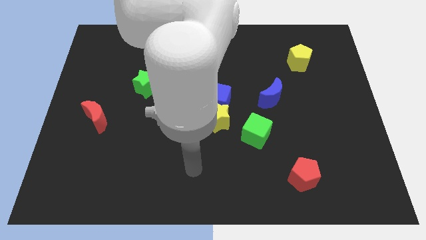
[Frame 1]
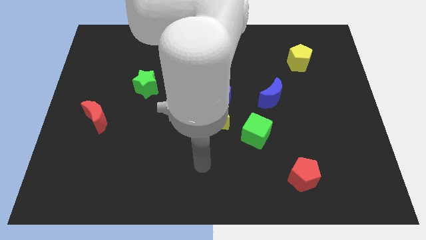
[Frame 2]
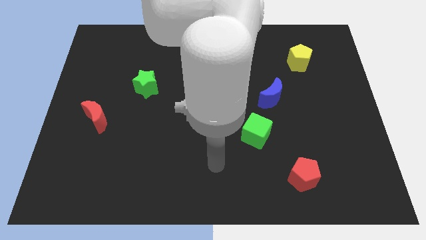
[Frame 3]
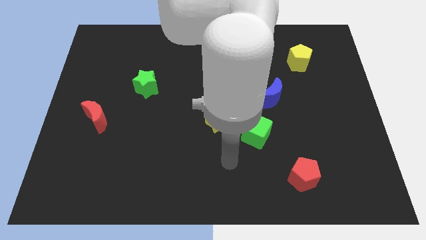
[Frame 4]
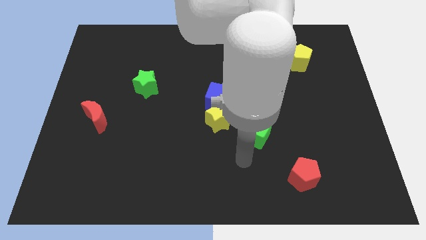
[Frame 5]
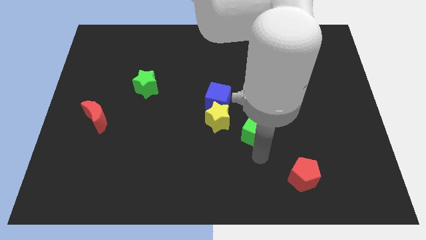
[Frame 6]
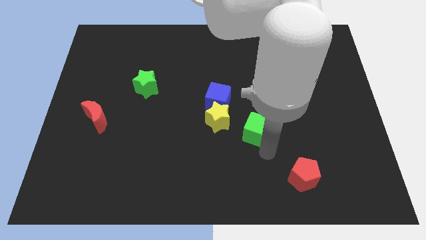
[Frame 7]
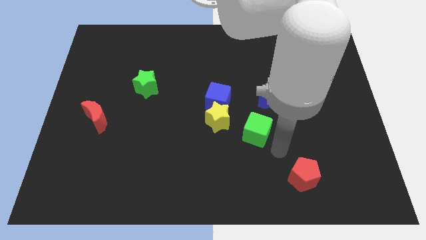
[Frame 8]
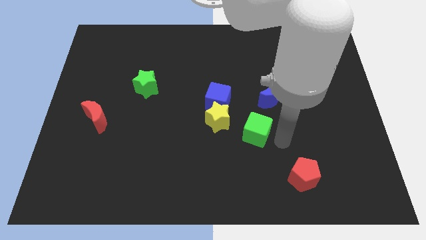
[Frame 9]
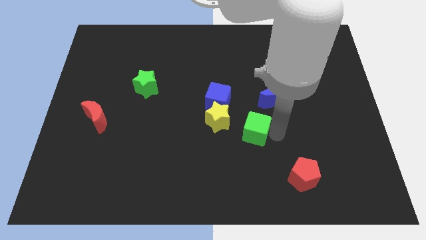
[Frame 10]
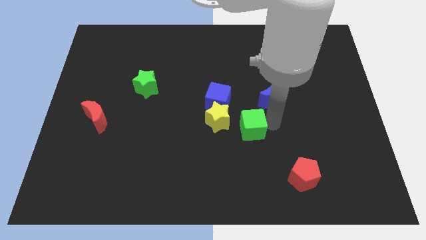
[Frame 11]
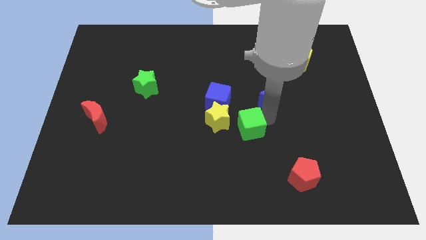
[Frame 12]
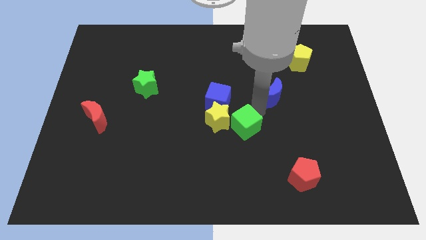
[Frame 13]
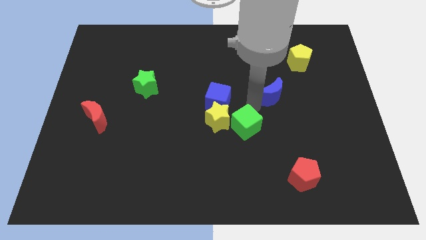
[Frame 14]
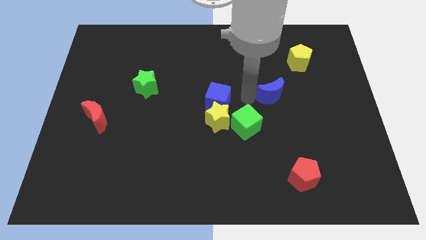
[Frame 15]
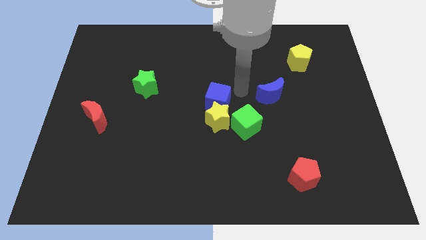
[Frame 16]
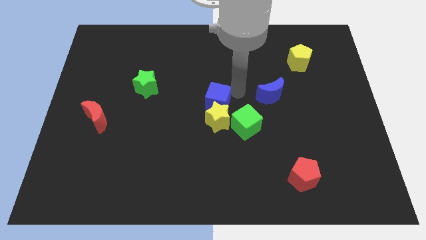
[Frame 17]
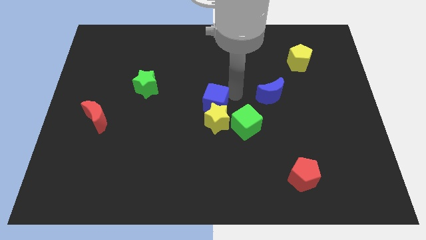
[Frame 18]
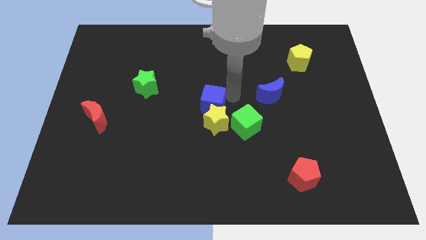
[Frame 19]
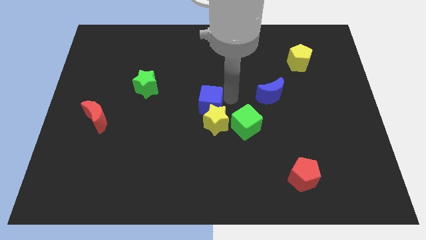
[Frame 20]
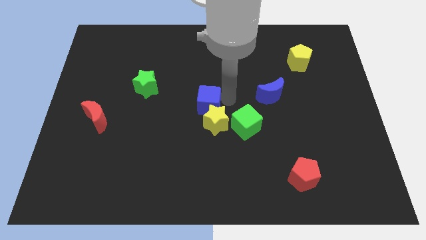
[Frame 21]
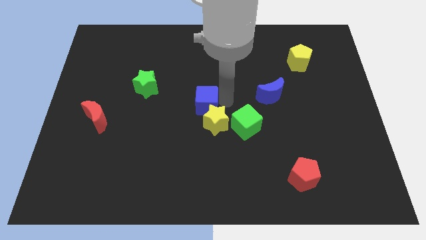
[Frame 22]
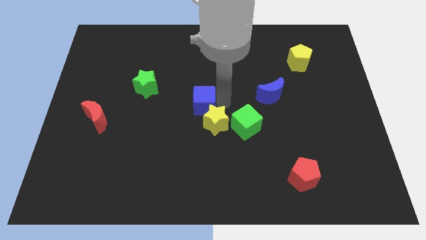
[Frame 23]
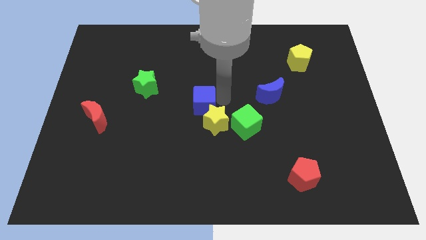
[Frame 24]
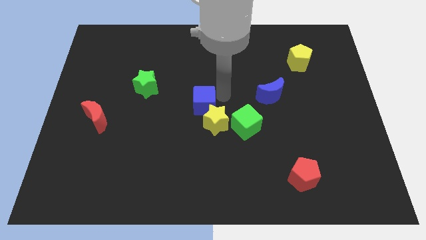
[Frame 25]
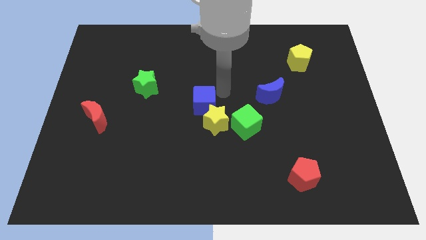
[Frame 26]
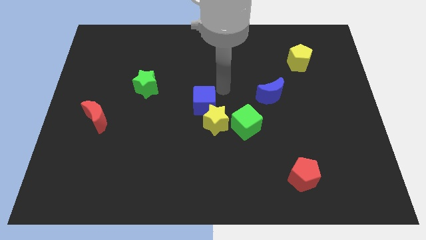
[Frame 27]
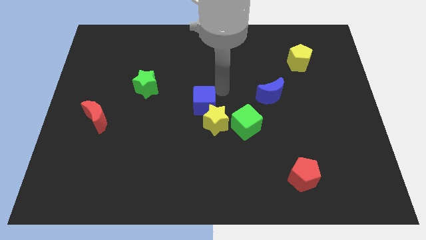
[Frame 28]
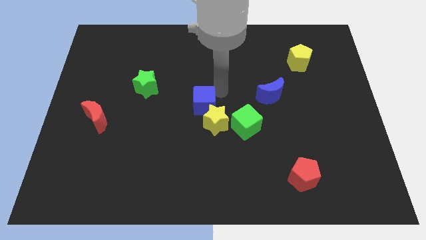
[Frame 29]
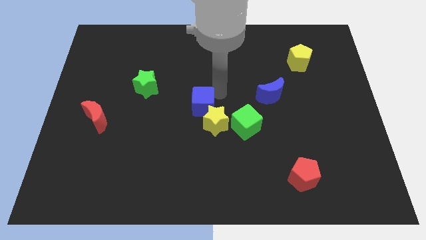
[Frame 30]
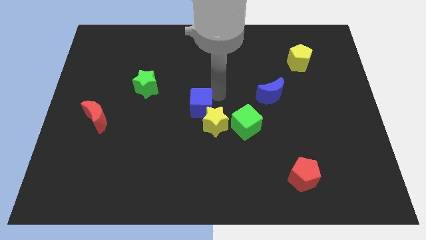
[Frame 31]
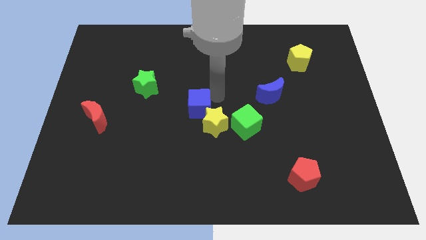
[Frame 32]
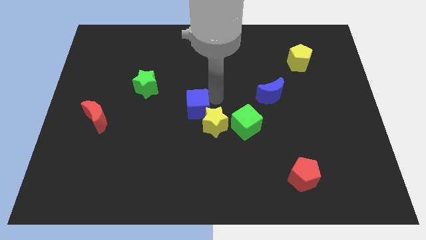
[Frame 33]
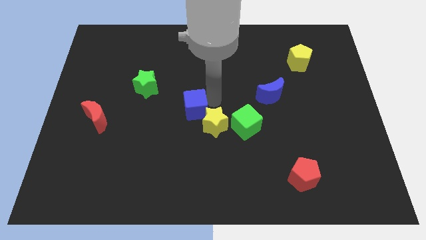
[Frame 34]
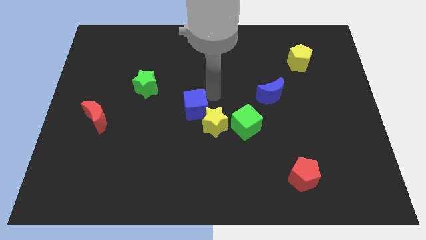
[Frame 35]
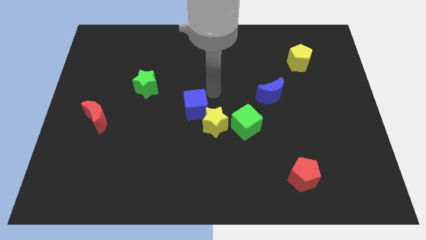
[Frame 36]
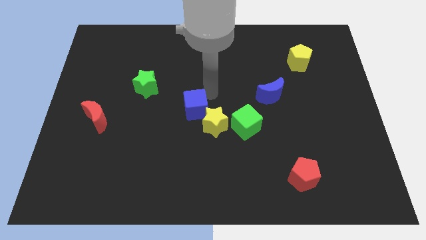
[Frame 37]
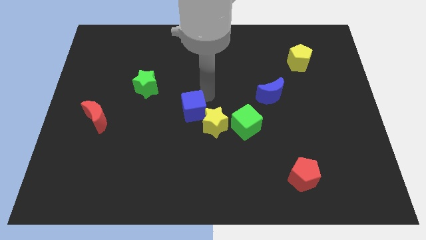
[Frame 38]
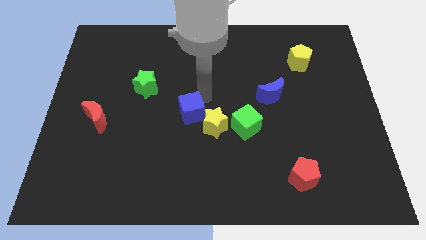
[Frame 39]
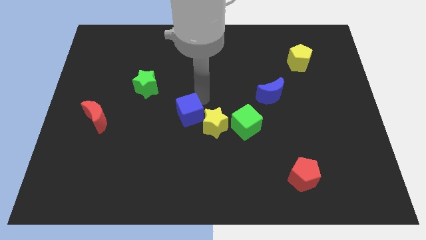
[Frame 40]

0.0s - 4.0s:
push the blue cube diagonally downwards and to the left a little bit

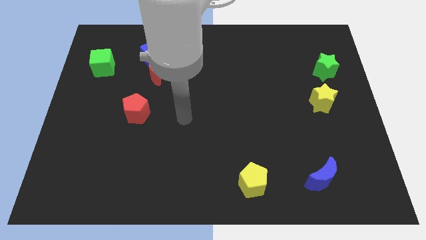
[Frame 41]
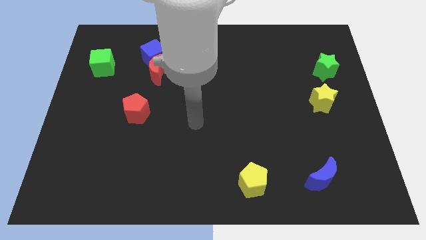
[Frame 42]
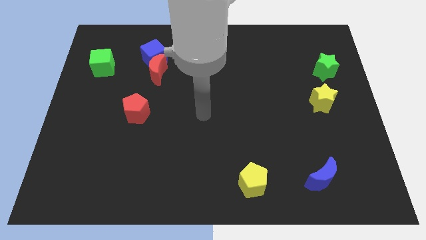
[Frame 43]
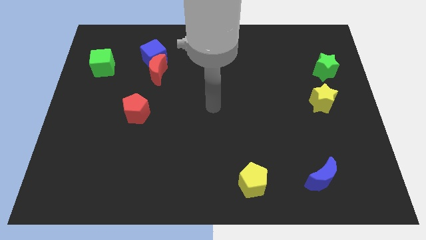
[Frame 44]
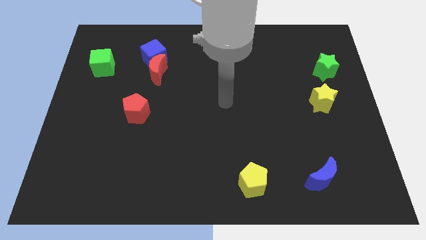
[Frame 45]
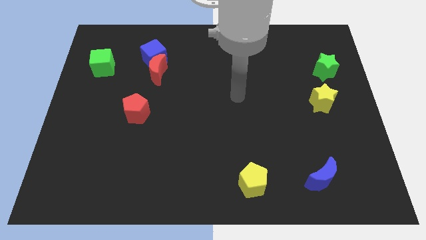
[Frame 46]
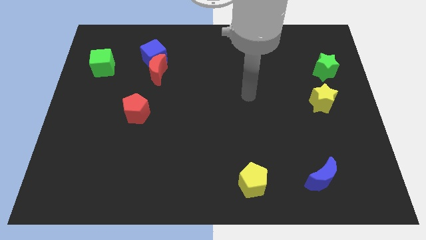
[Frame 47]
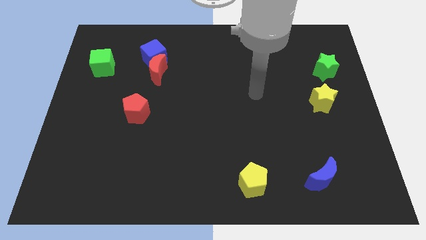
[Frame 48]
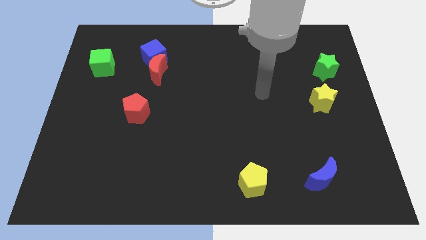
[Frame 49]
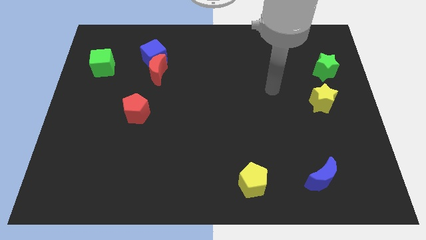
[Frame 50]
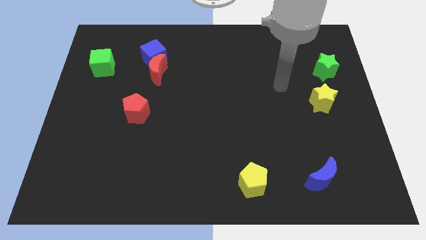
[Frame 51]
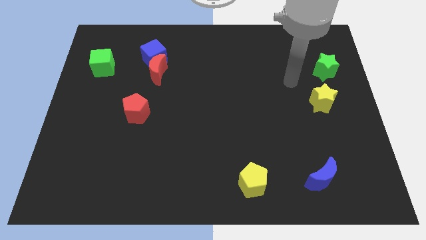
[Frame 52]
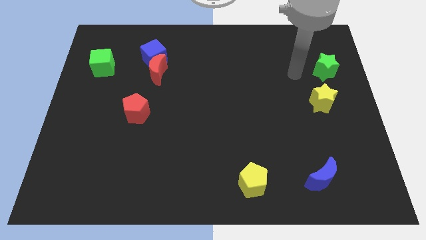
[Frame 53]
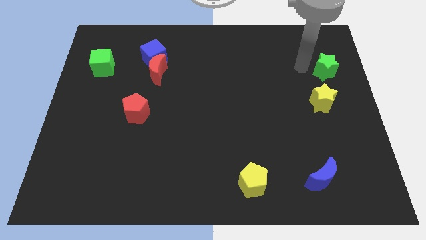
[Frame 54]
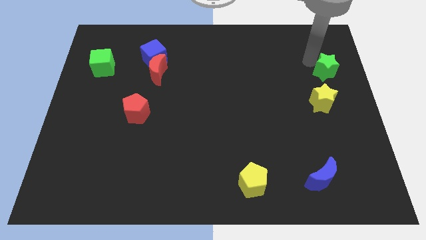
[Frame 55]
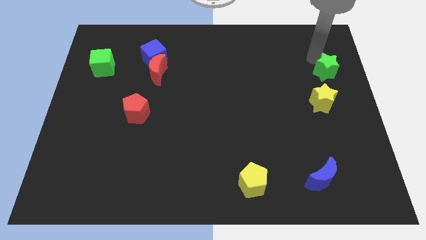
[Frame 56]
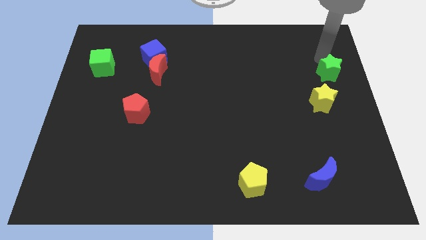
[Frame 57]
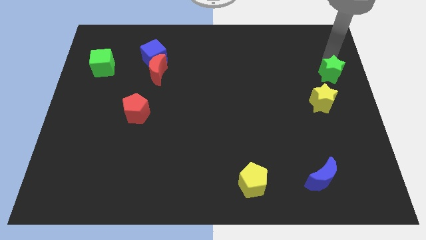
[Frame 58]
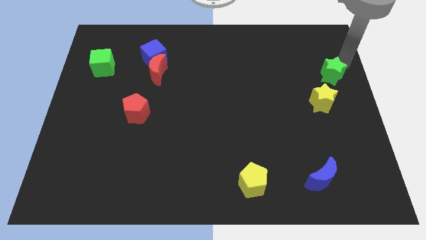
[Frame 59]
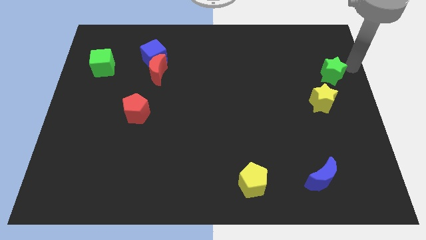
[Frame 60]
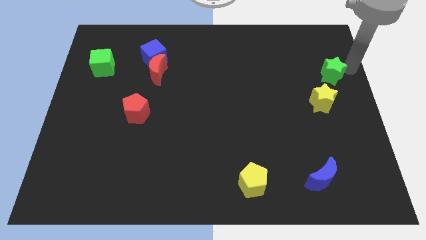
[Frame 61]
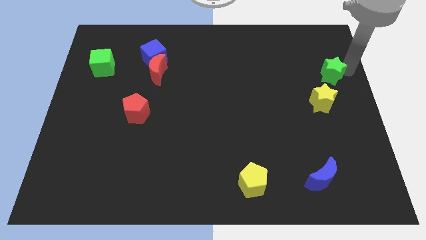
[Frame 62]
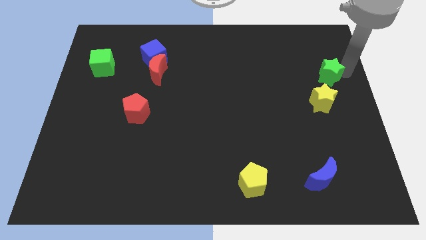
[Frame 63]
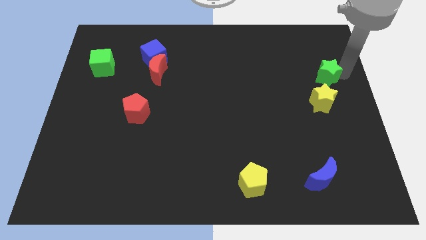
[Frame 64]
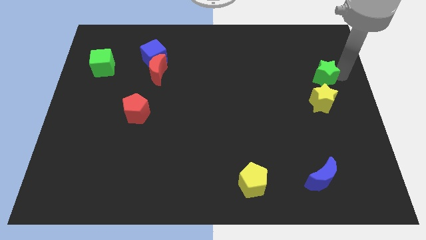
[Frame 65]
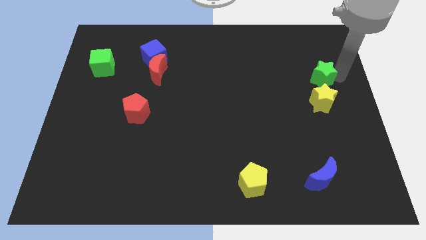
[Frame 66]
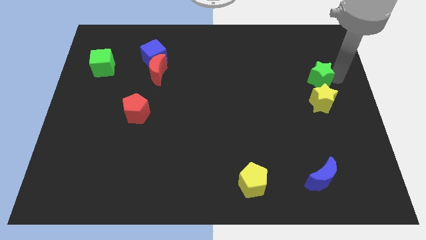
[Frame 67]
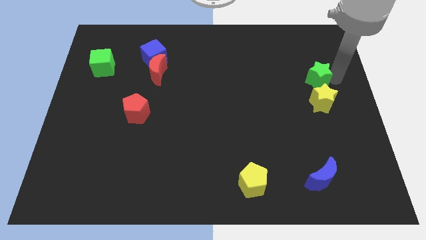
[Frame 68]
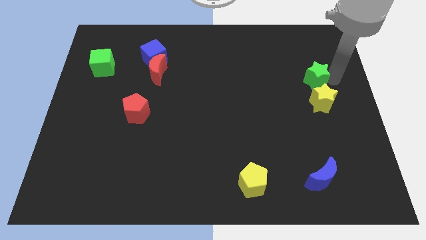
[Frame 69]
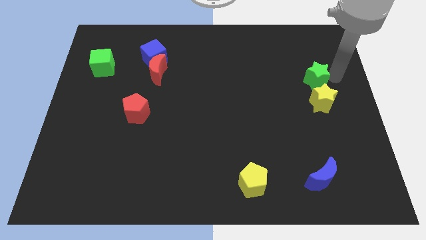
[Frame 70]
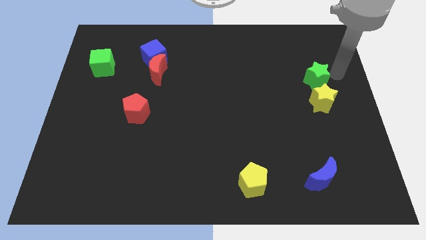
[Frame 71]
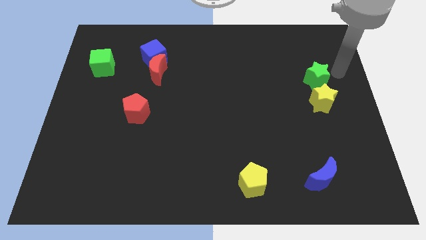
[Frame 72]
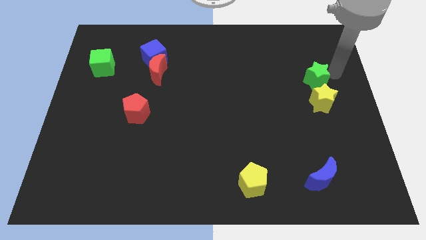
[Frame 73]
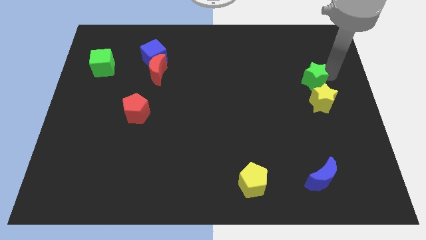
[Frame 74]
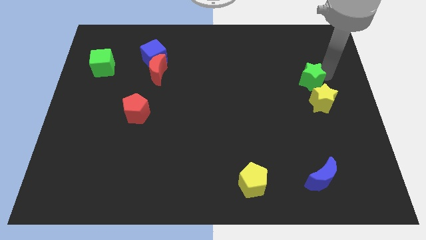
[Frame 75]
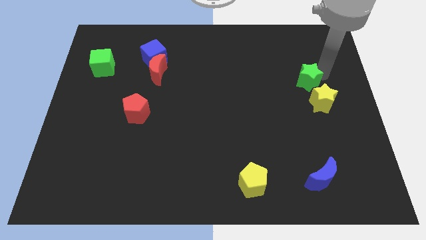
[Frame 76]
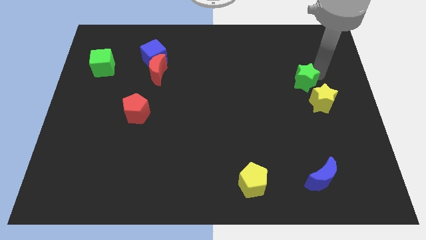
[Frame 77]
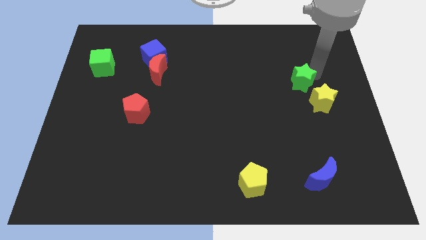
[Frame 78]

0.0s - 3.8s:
move the green star down and left diagonally a little bit

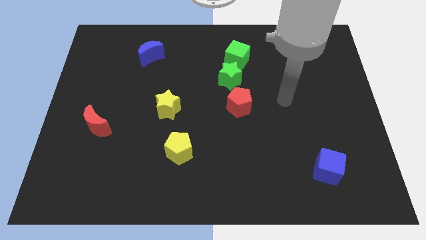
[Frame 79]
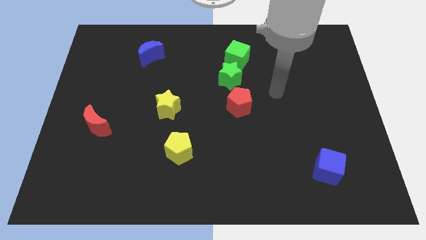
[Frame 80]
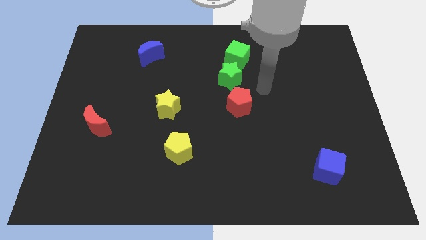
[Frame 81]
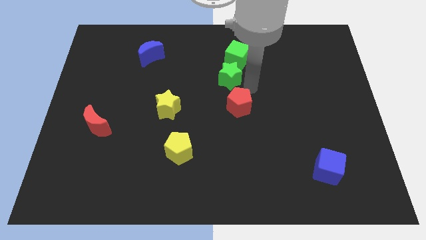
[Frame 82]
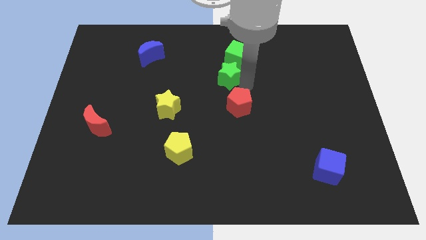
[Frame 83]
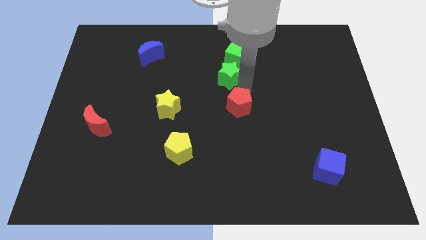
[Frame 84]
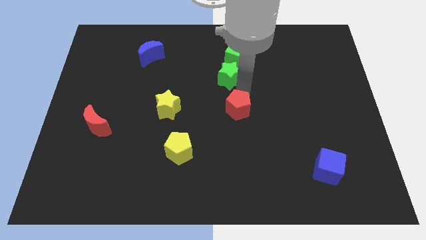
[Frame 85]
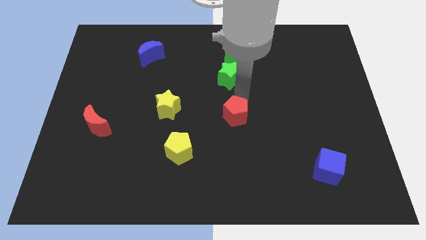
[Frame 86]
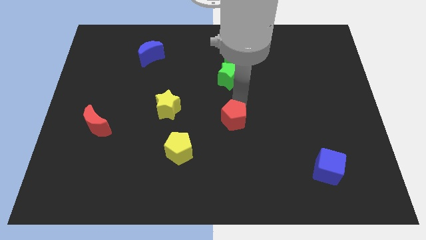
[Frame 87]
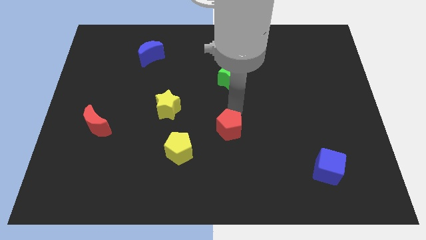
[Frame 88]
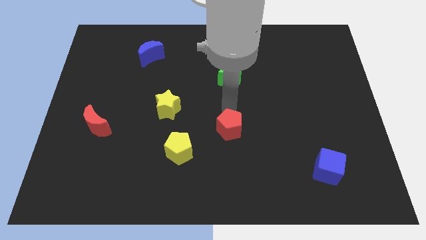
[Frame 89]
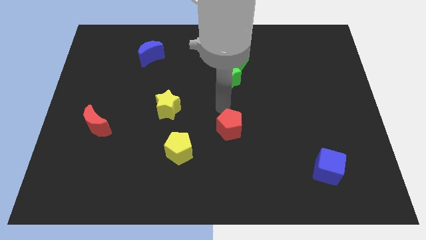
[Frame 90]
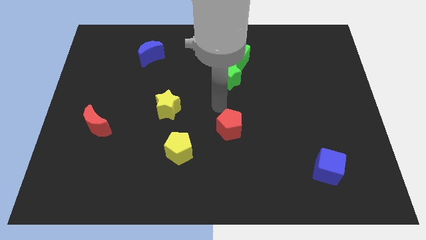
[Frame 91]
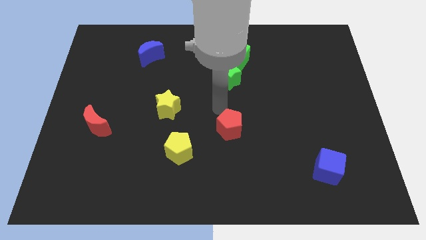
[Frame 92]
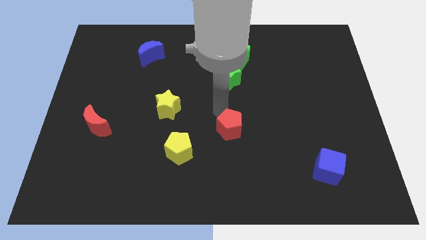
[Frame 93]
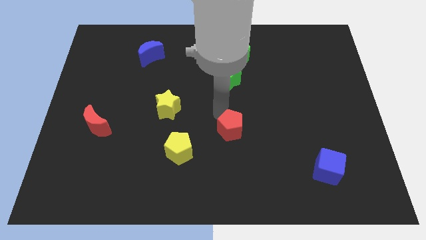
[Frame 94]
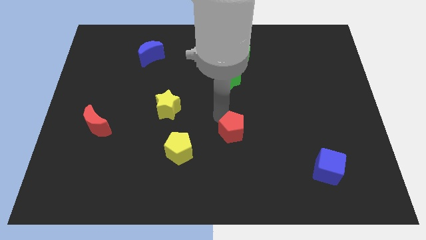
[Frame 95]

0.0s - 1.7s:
move the red pentagon slightly downwards
